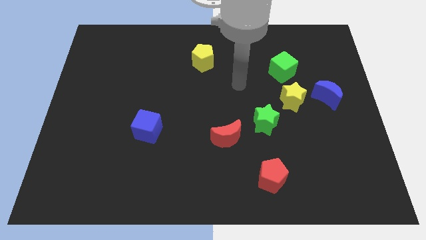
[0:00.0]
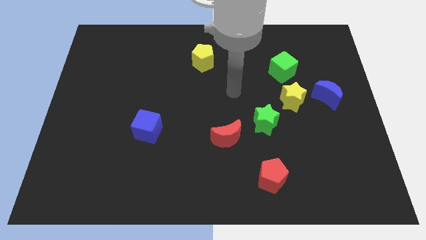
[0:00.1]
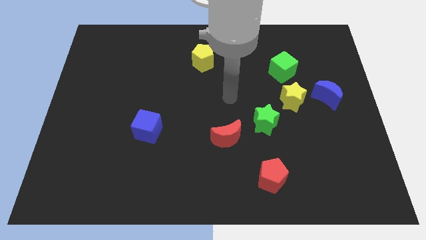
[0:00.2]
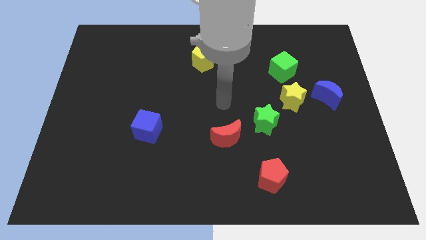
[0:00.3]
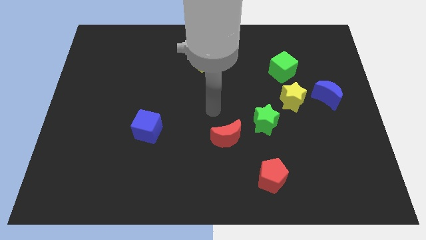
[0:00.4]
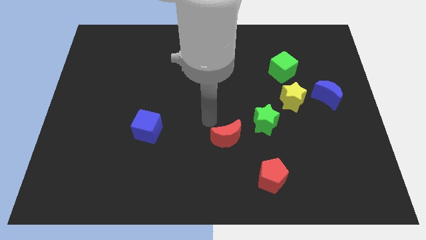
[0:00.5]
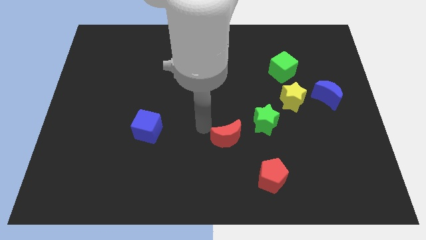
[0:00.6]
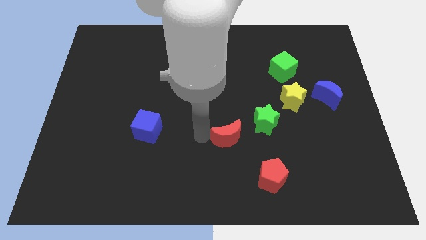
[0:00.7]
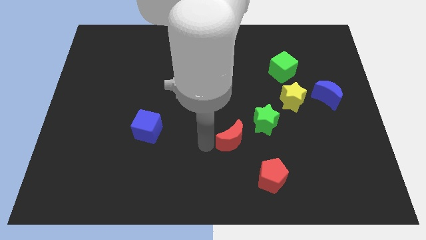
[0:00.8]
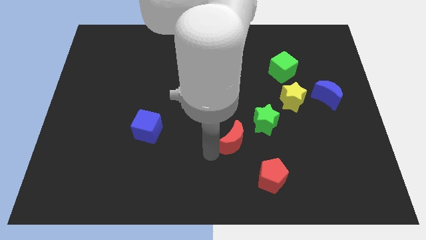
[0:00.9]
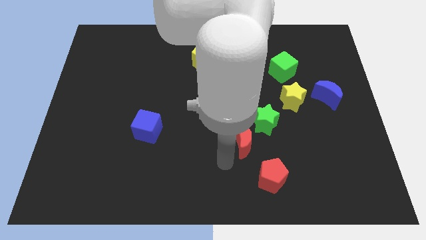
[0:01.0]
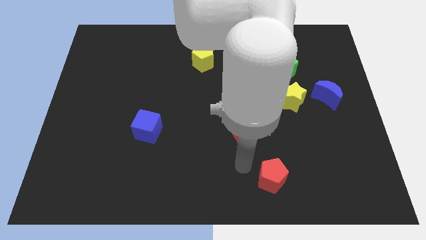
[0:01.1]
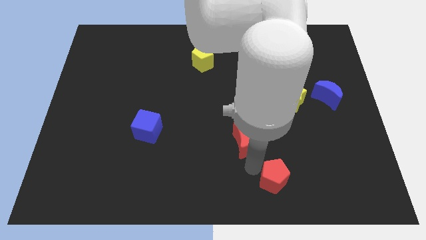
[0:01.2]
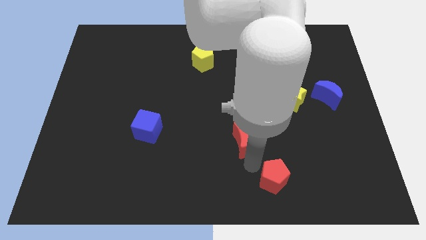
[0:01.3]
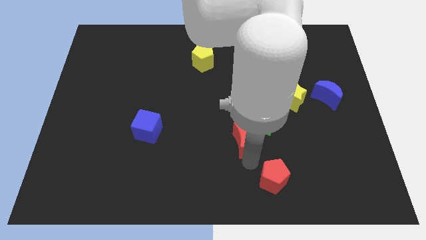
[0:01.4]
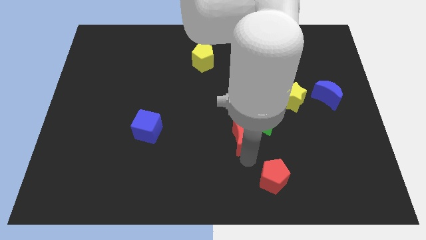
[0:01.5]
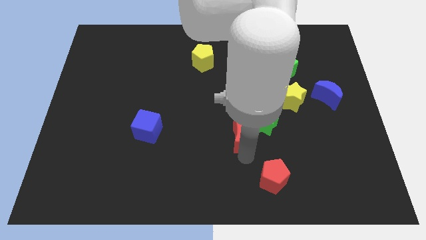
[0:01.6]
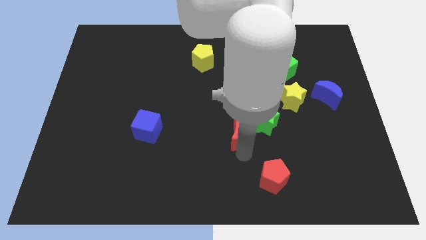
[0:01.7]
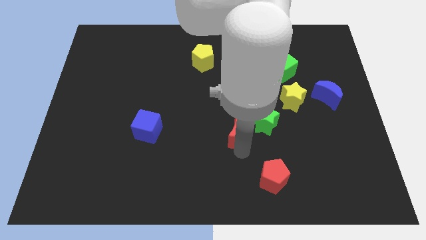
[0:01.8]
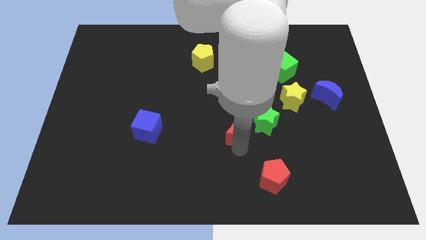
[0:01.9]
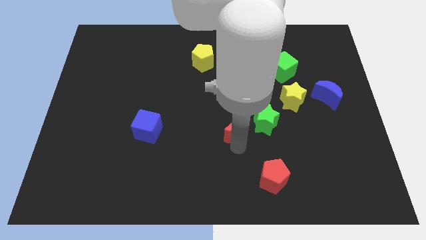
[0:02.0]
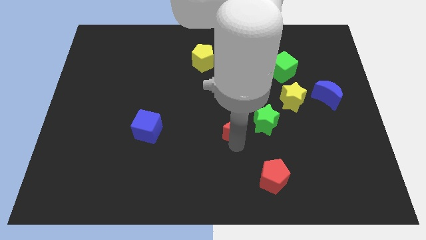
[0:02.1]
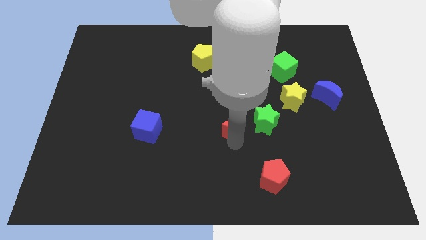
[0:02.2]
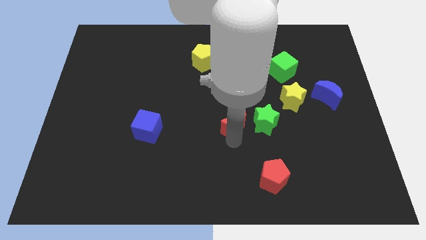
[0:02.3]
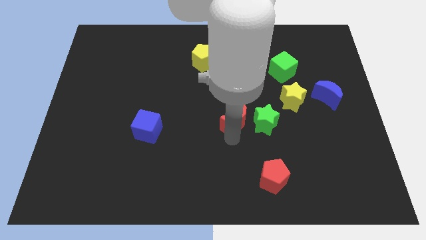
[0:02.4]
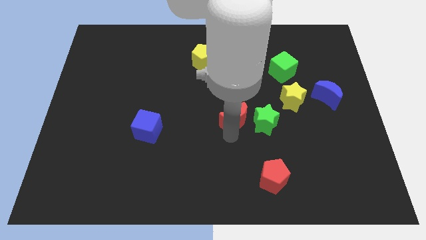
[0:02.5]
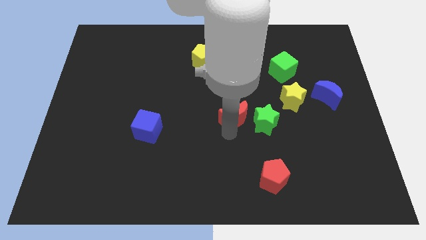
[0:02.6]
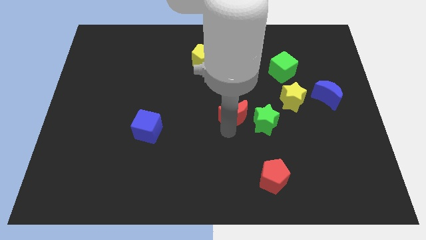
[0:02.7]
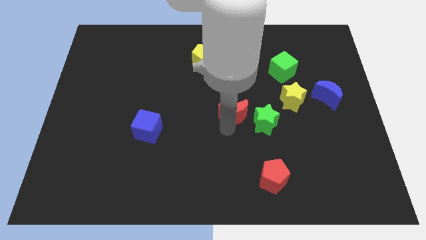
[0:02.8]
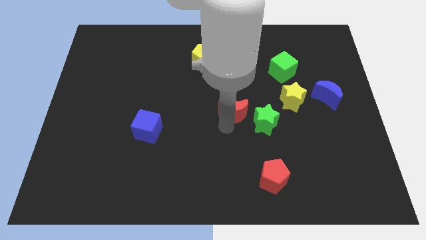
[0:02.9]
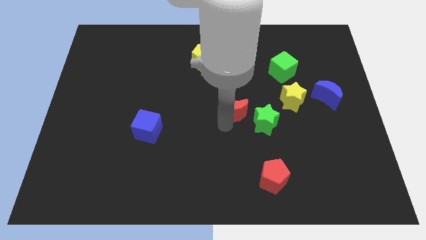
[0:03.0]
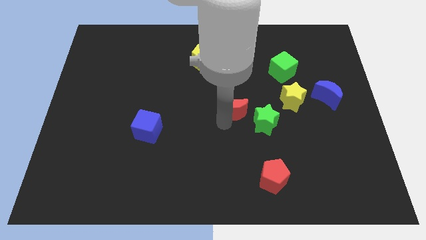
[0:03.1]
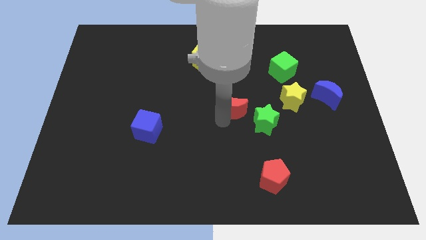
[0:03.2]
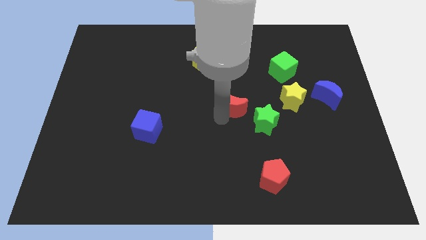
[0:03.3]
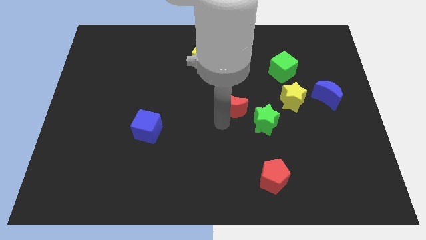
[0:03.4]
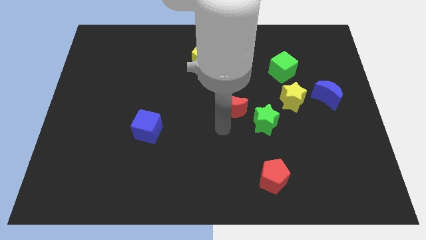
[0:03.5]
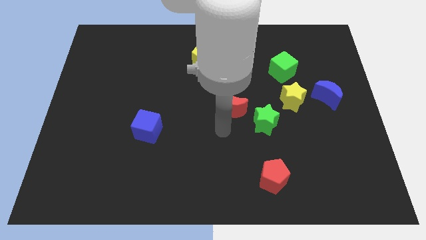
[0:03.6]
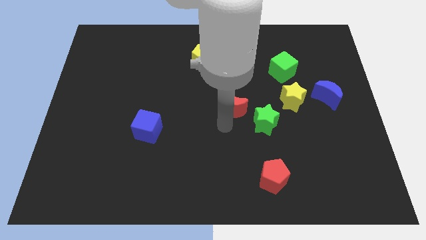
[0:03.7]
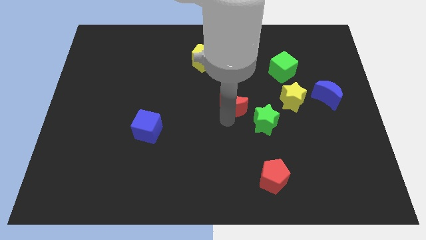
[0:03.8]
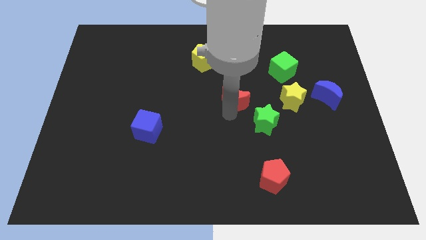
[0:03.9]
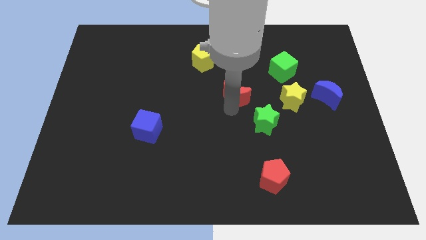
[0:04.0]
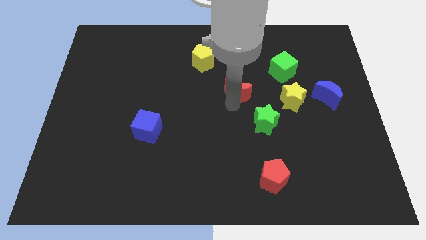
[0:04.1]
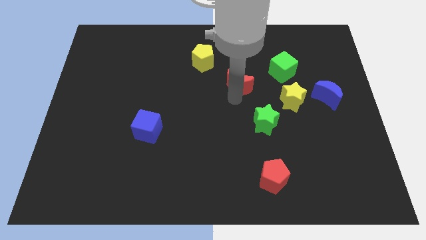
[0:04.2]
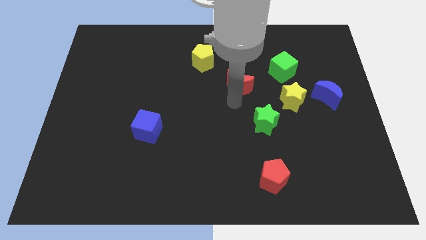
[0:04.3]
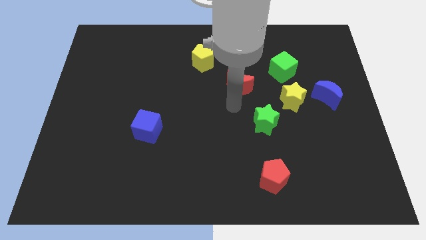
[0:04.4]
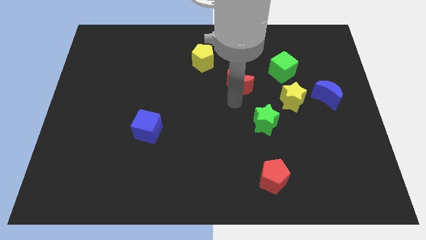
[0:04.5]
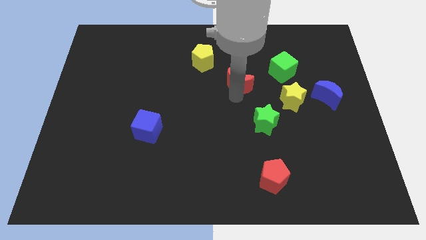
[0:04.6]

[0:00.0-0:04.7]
put the red moon just left of the green cube

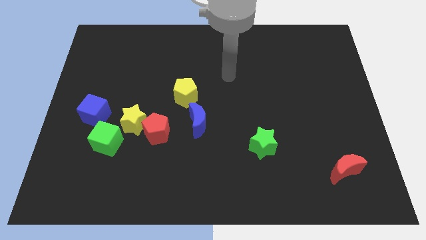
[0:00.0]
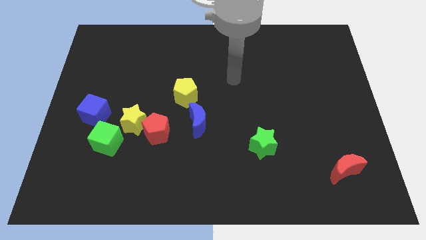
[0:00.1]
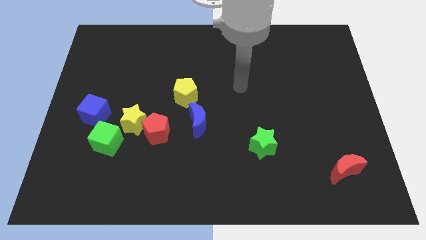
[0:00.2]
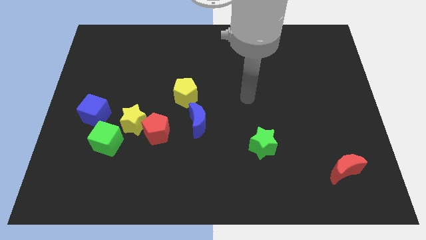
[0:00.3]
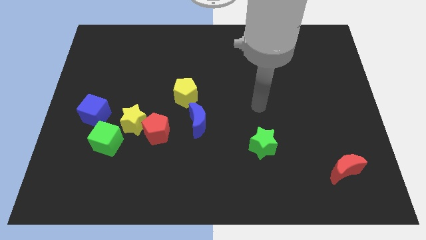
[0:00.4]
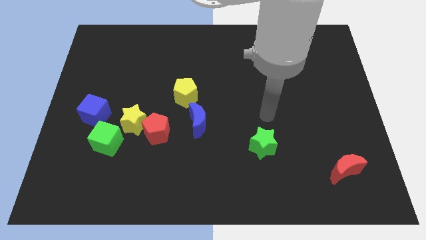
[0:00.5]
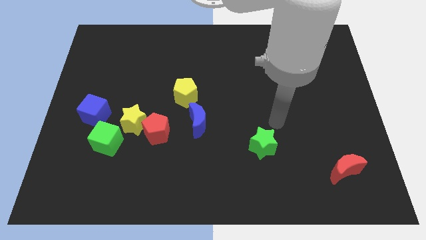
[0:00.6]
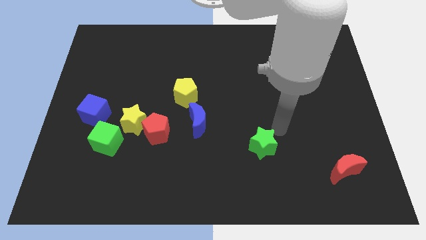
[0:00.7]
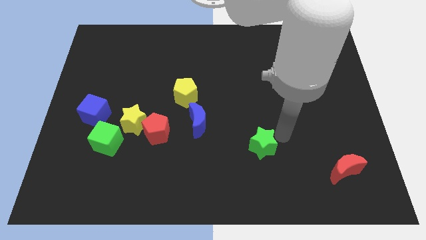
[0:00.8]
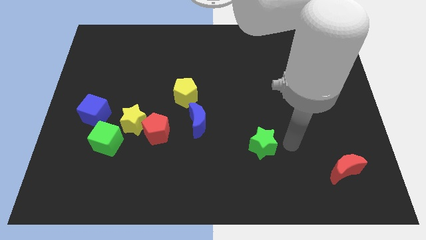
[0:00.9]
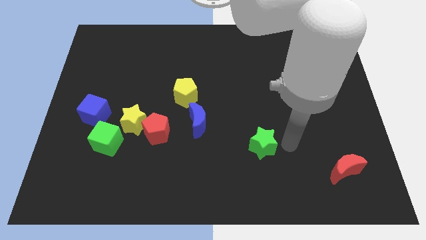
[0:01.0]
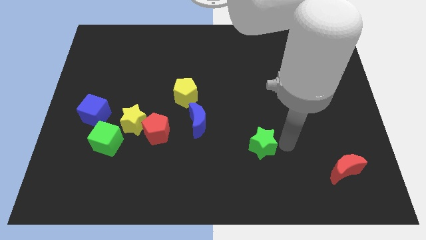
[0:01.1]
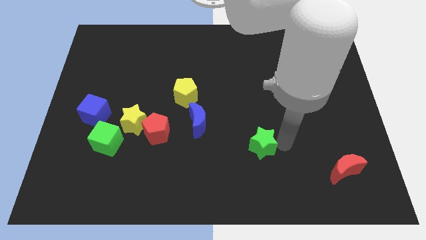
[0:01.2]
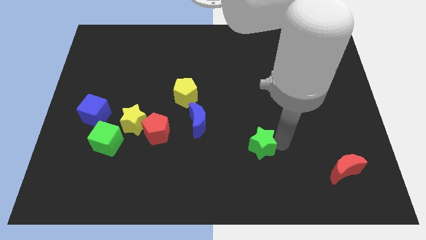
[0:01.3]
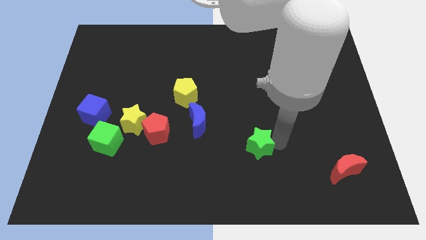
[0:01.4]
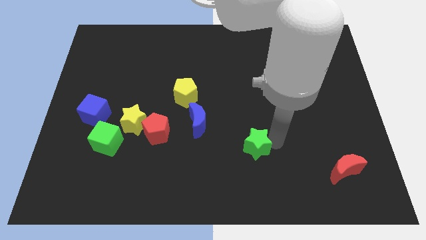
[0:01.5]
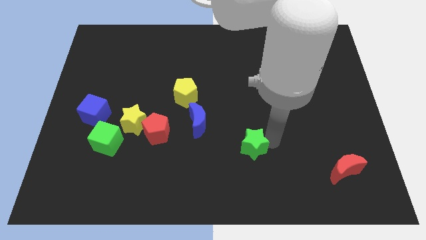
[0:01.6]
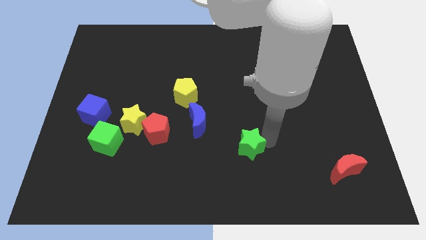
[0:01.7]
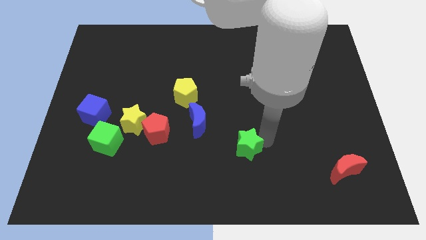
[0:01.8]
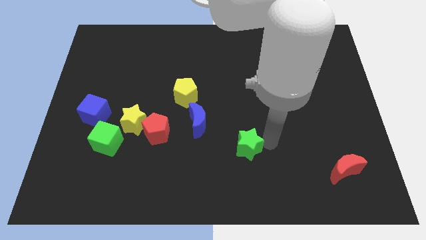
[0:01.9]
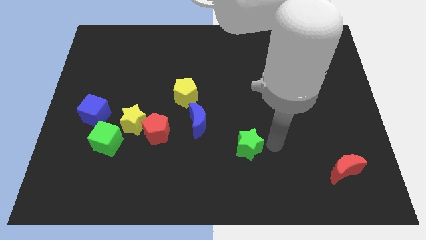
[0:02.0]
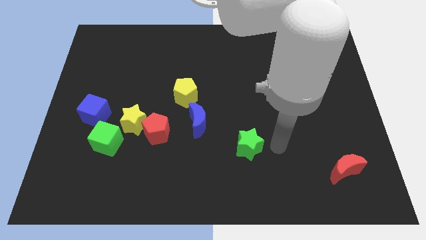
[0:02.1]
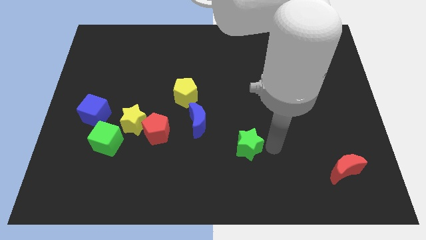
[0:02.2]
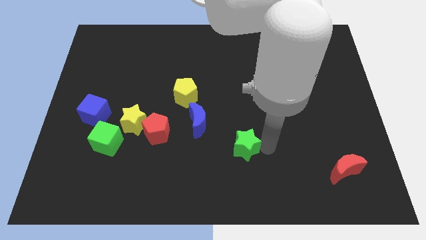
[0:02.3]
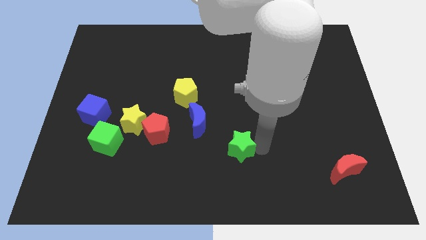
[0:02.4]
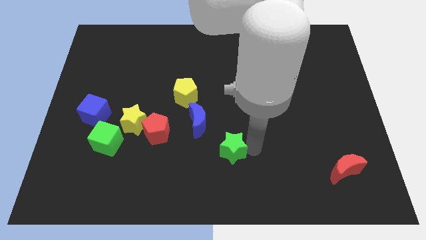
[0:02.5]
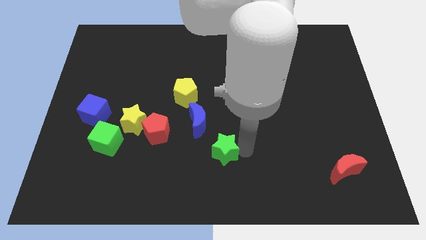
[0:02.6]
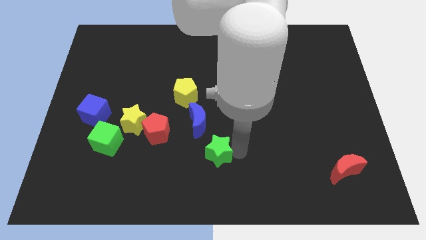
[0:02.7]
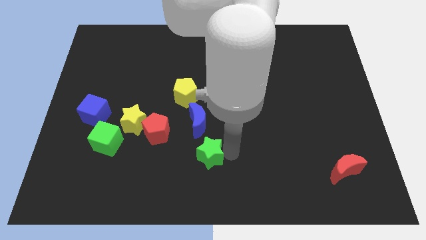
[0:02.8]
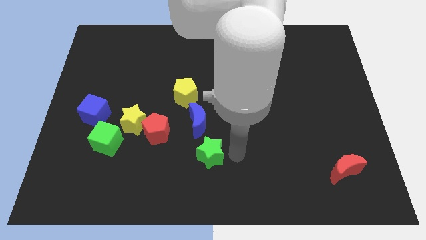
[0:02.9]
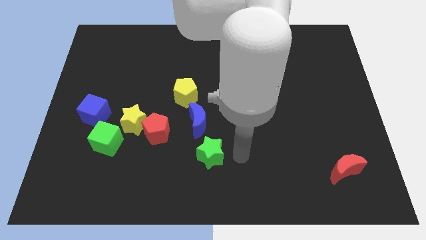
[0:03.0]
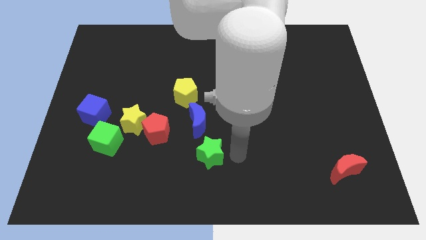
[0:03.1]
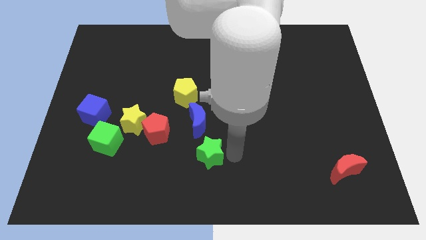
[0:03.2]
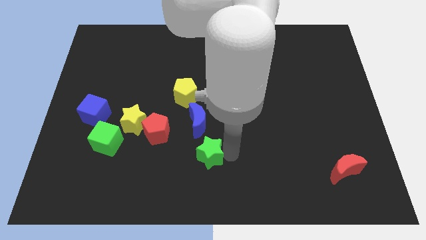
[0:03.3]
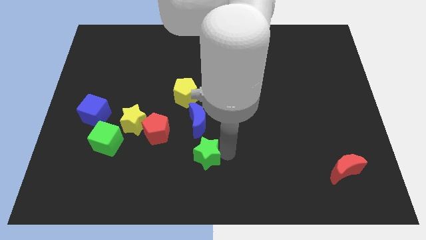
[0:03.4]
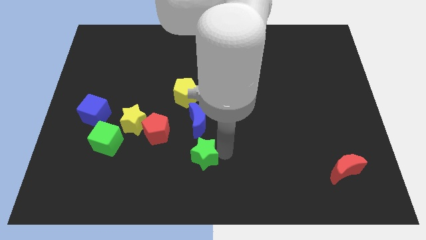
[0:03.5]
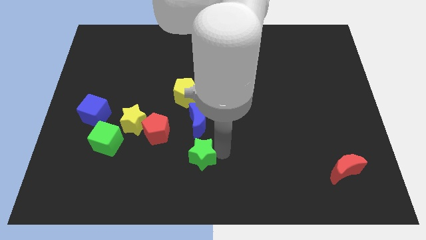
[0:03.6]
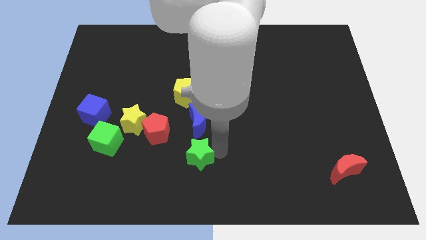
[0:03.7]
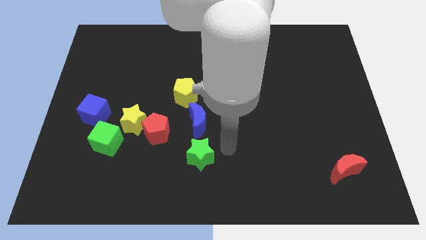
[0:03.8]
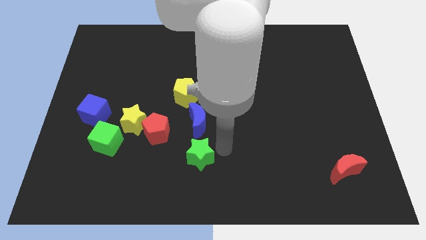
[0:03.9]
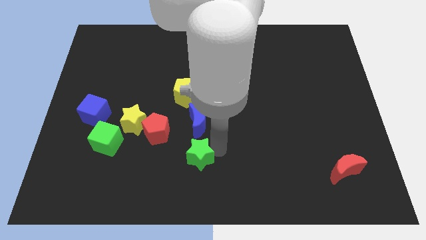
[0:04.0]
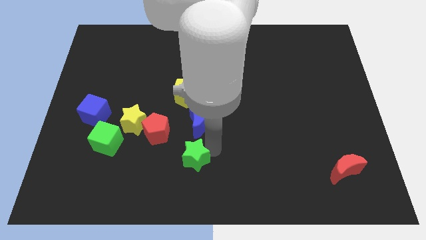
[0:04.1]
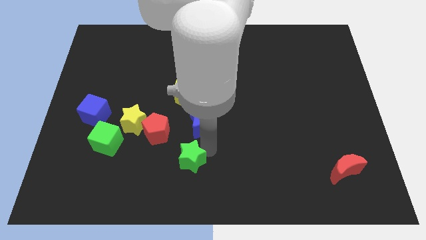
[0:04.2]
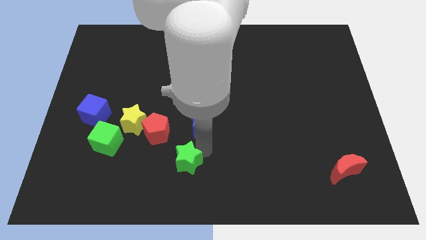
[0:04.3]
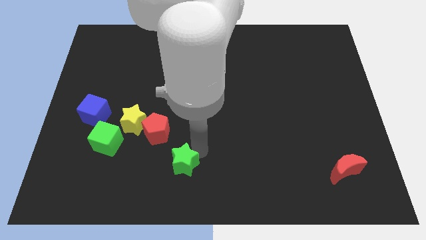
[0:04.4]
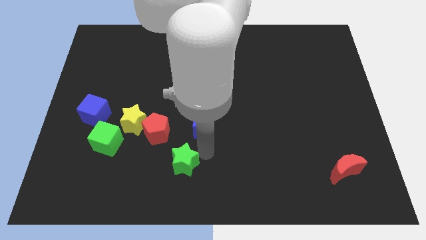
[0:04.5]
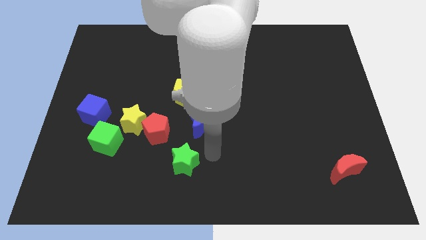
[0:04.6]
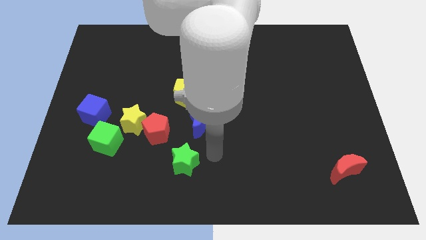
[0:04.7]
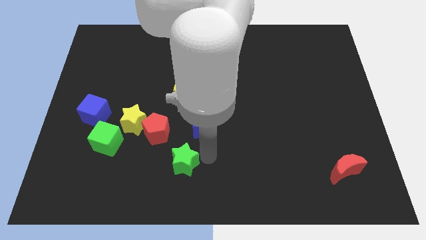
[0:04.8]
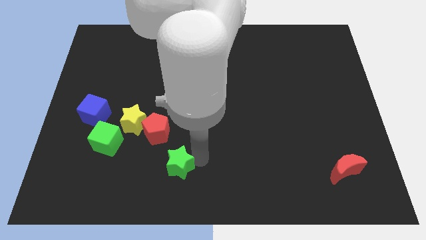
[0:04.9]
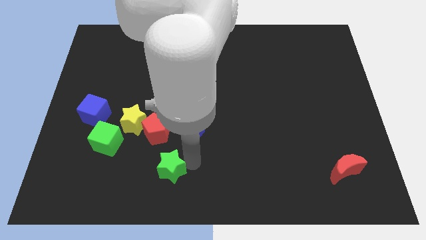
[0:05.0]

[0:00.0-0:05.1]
slide the green star below the red pentagon
